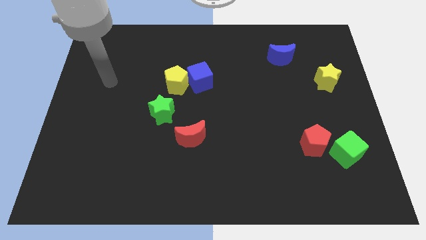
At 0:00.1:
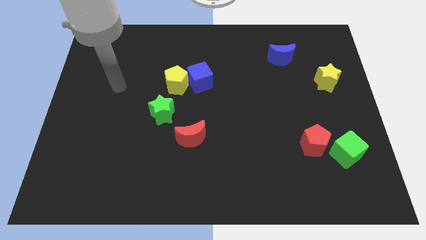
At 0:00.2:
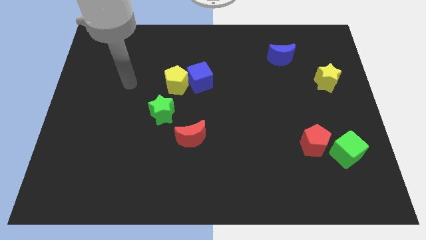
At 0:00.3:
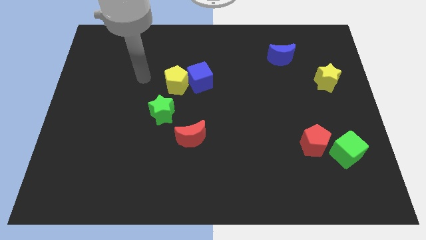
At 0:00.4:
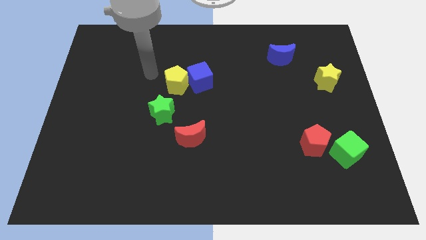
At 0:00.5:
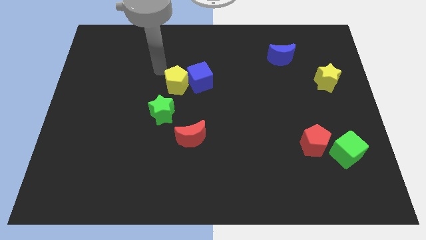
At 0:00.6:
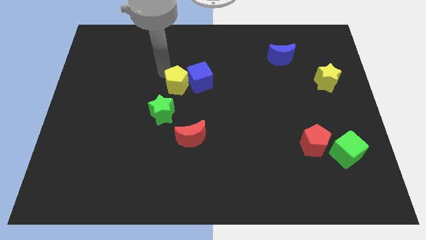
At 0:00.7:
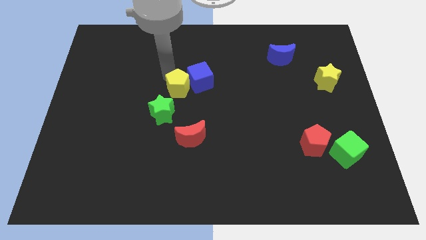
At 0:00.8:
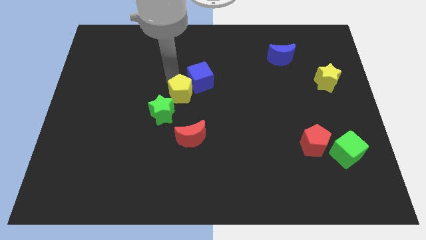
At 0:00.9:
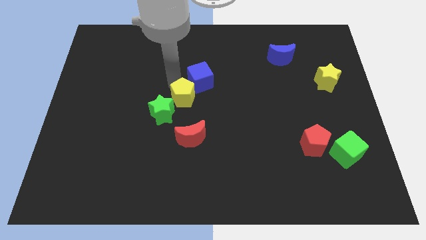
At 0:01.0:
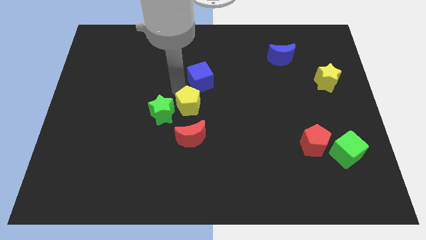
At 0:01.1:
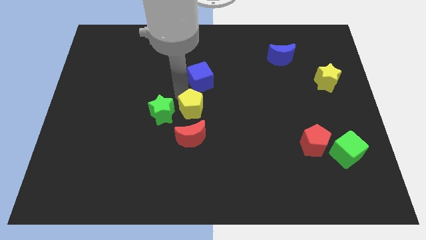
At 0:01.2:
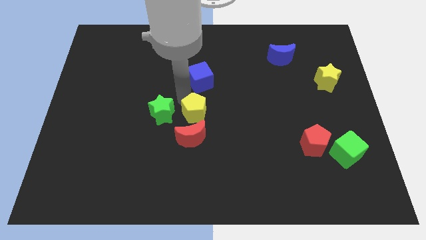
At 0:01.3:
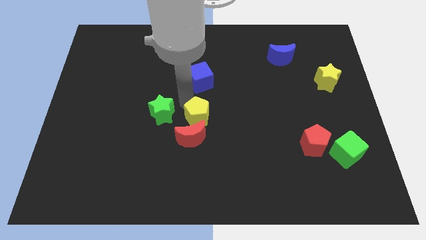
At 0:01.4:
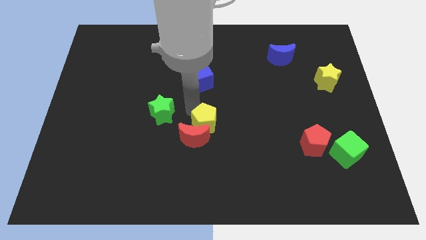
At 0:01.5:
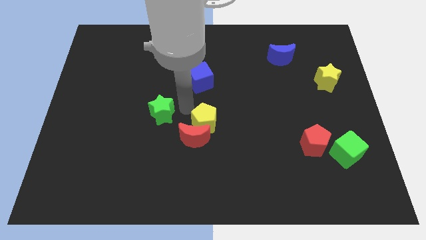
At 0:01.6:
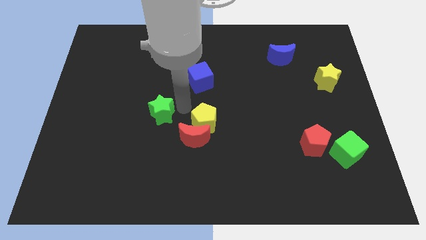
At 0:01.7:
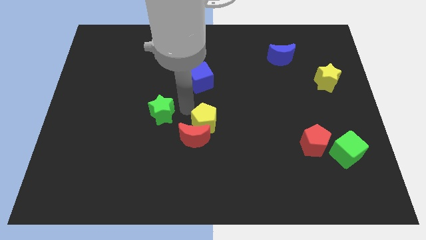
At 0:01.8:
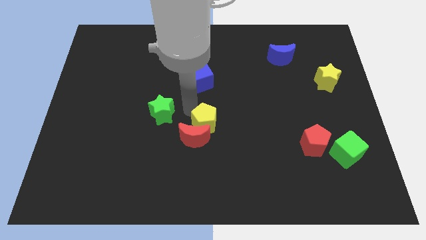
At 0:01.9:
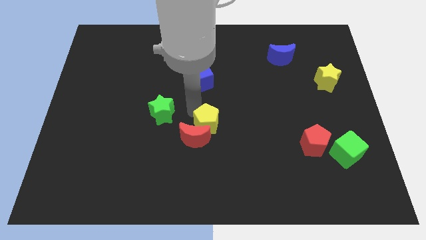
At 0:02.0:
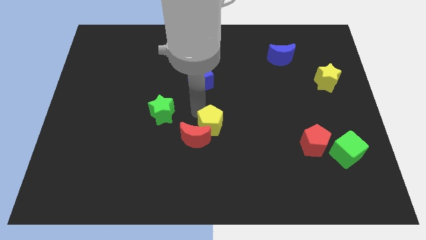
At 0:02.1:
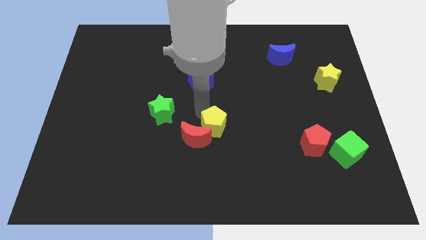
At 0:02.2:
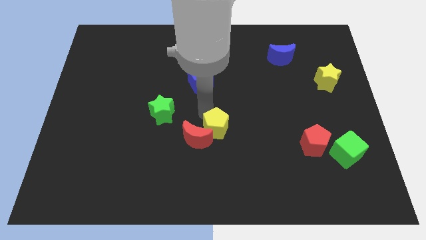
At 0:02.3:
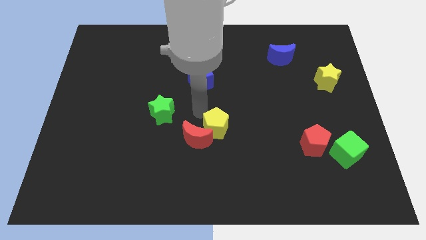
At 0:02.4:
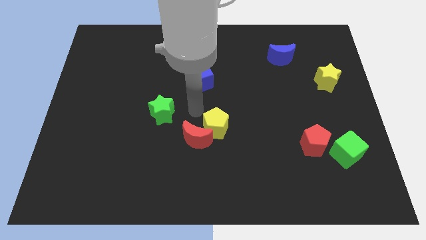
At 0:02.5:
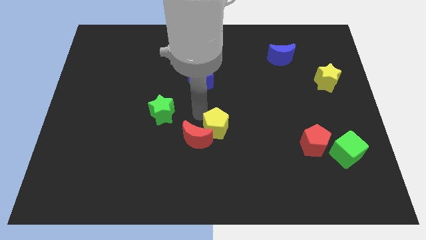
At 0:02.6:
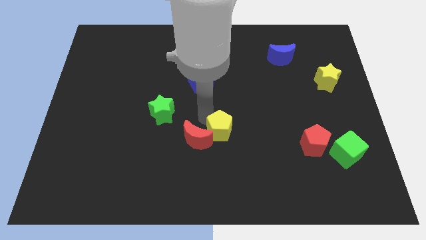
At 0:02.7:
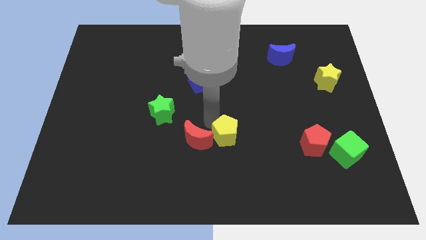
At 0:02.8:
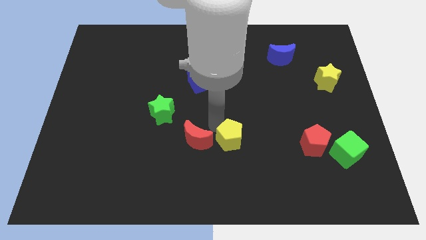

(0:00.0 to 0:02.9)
push the yellow pentagon diagonally downwards and to the right

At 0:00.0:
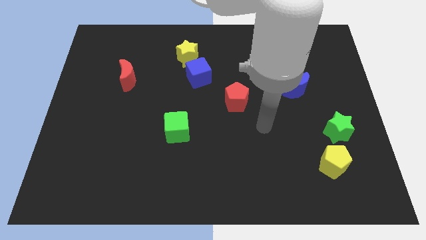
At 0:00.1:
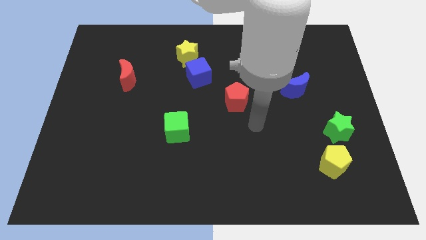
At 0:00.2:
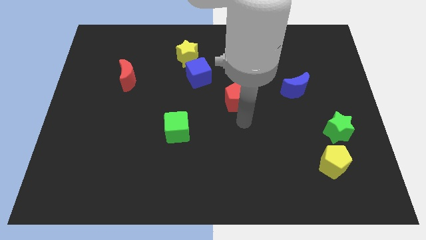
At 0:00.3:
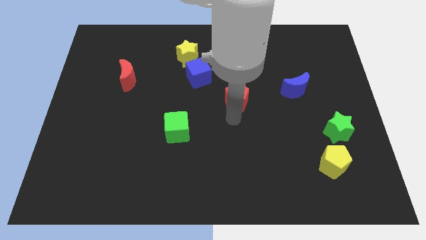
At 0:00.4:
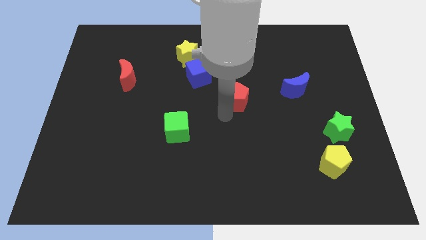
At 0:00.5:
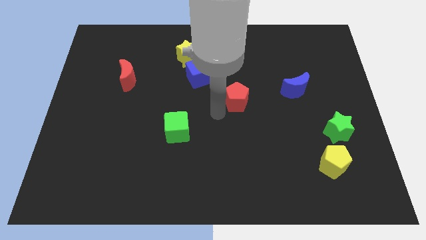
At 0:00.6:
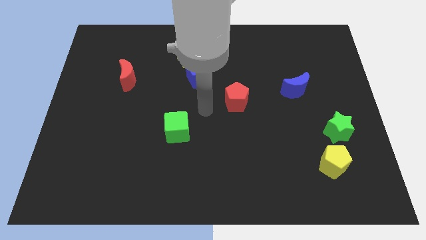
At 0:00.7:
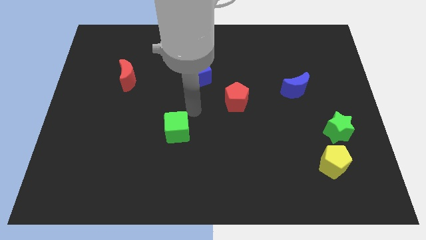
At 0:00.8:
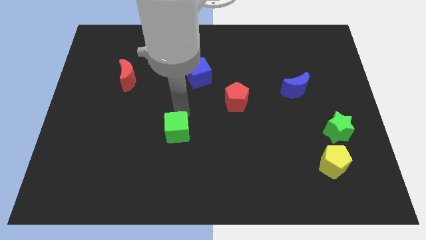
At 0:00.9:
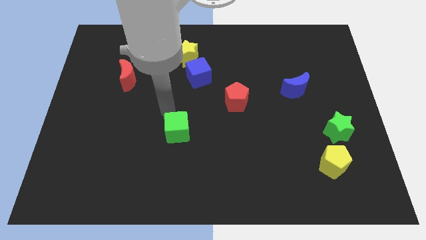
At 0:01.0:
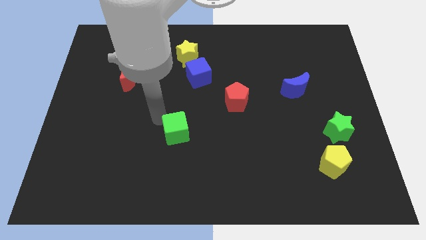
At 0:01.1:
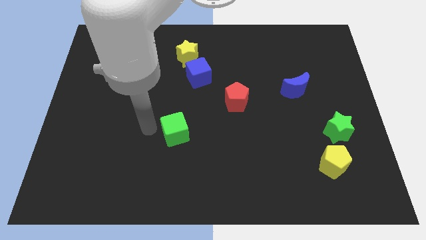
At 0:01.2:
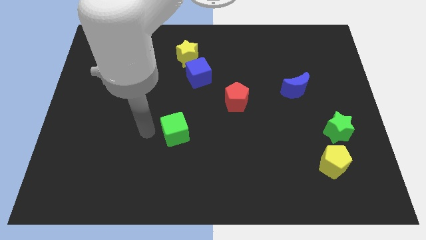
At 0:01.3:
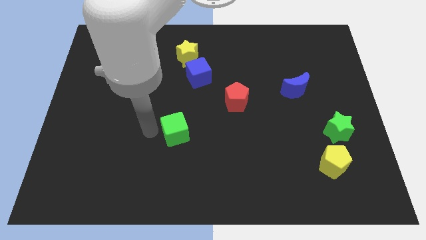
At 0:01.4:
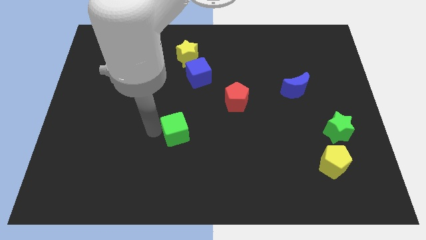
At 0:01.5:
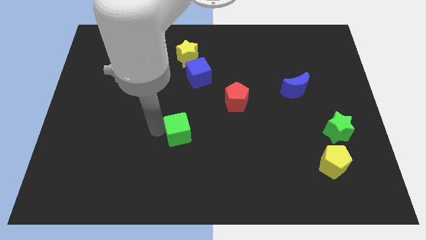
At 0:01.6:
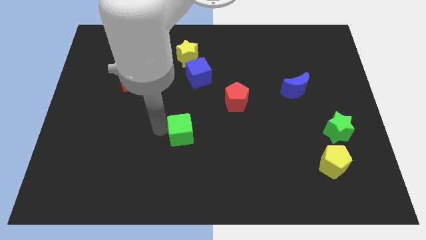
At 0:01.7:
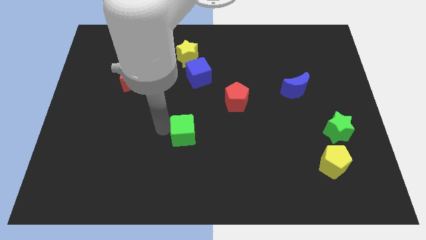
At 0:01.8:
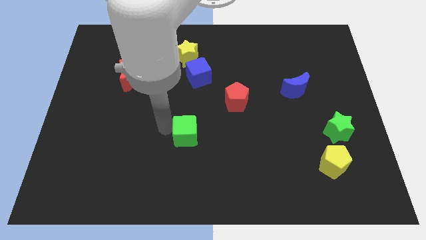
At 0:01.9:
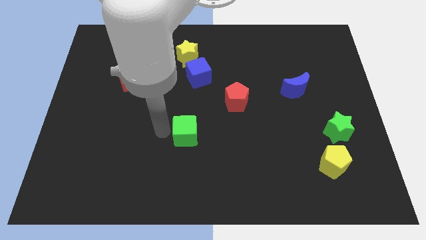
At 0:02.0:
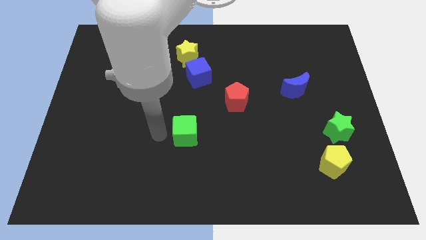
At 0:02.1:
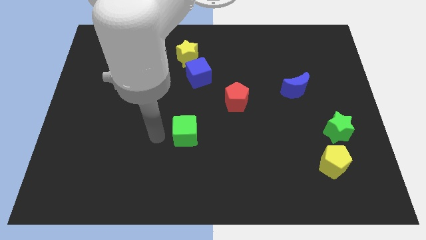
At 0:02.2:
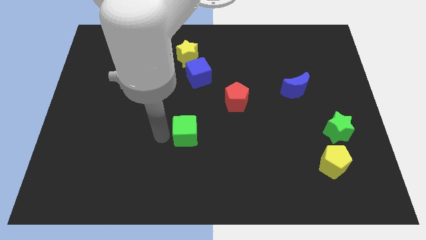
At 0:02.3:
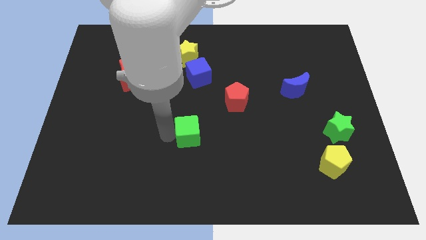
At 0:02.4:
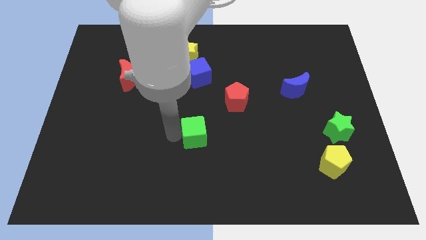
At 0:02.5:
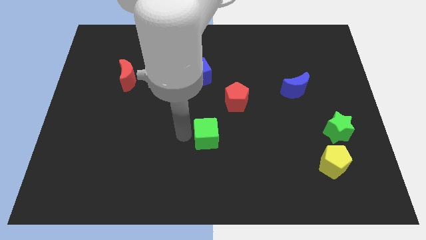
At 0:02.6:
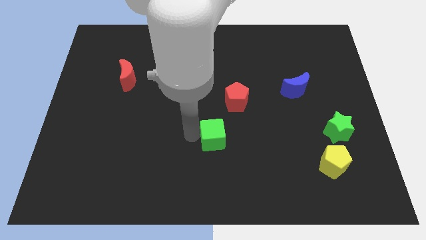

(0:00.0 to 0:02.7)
slide the green cube to the right a little bit

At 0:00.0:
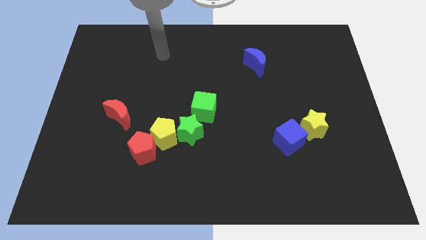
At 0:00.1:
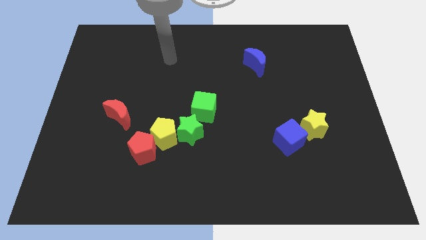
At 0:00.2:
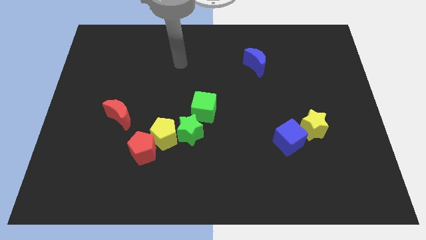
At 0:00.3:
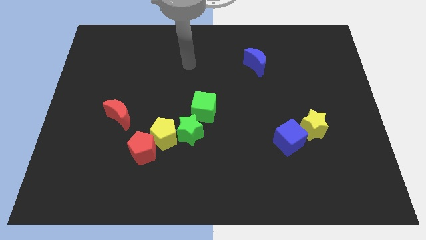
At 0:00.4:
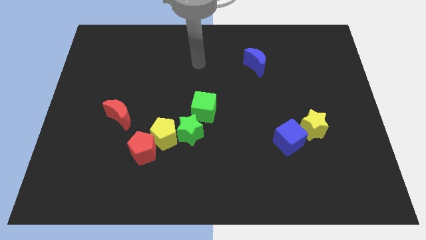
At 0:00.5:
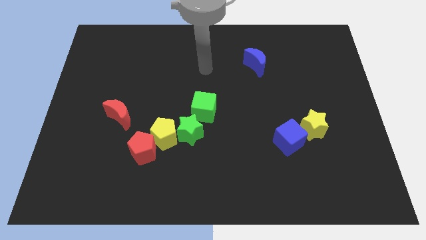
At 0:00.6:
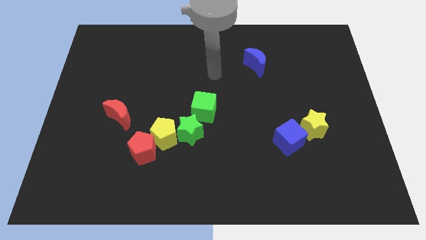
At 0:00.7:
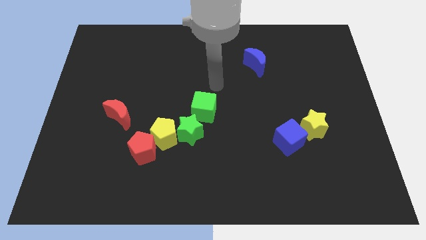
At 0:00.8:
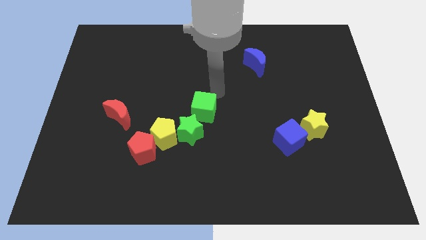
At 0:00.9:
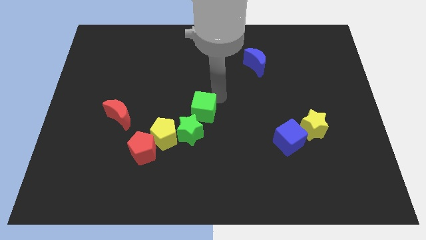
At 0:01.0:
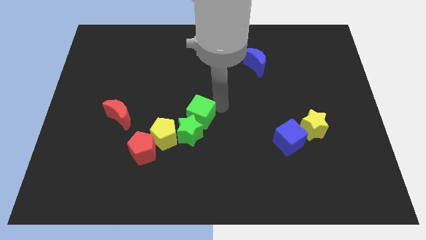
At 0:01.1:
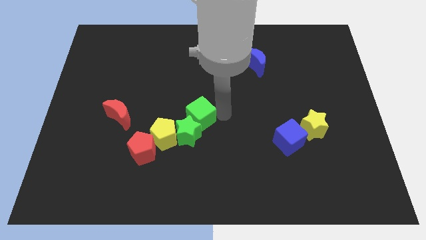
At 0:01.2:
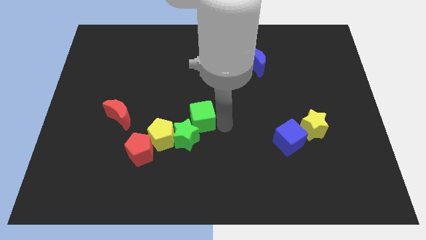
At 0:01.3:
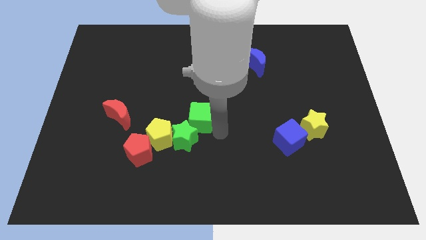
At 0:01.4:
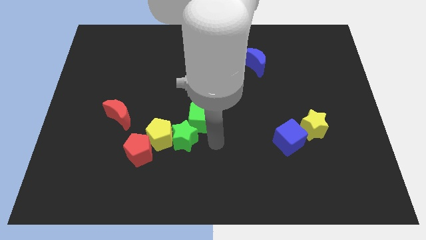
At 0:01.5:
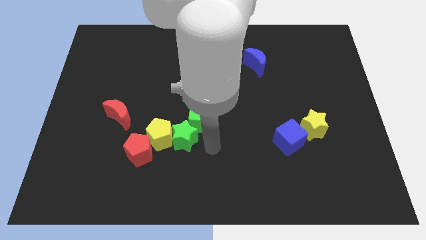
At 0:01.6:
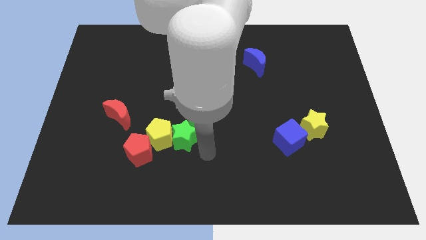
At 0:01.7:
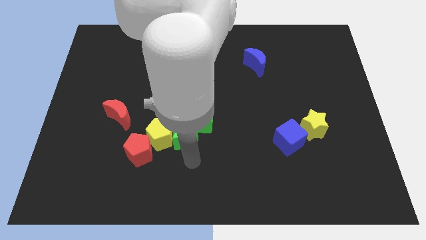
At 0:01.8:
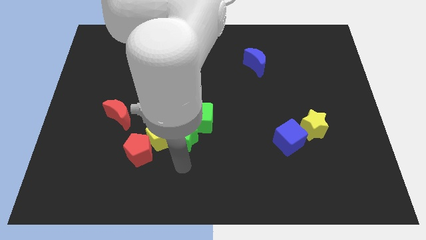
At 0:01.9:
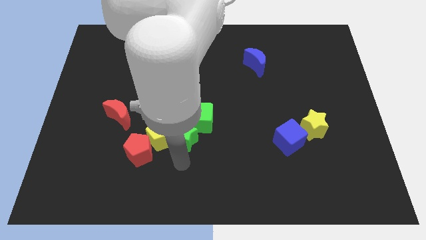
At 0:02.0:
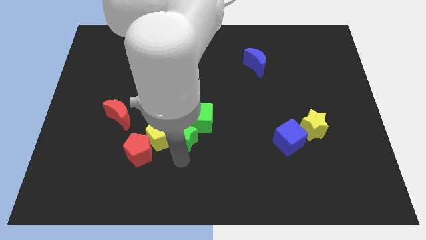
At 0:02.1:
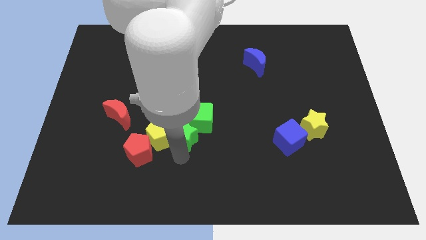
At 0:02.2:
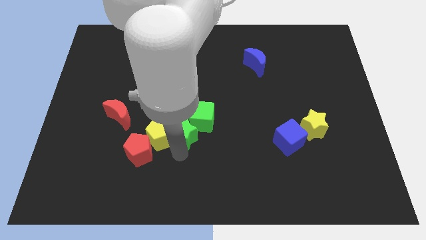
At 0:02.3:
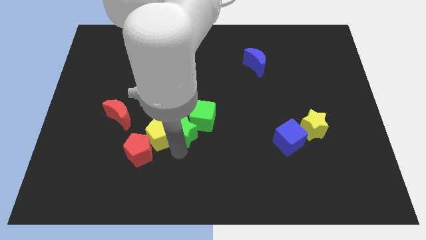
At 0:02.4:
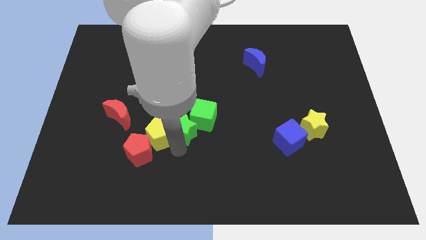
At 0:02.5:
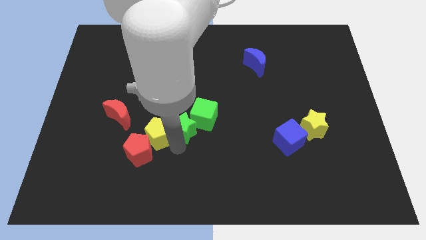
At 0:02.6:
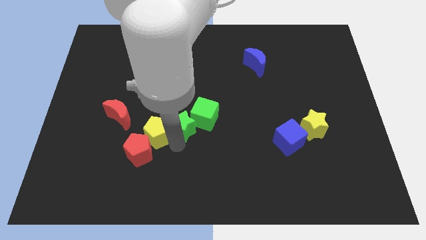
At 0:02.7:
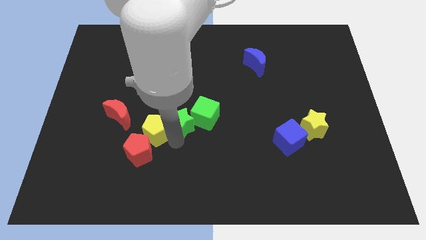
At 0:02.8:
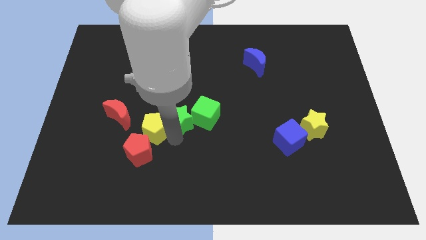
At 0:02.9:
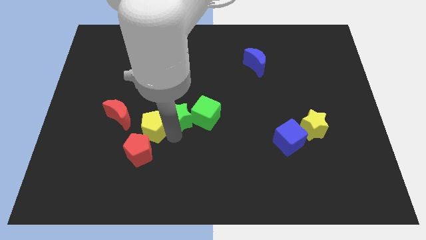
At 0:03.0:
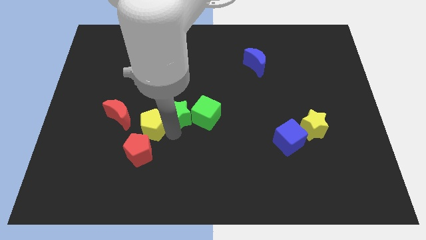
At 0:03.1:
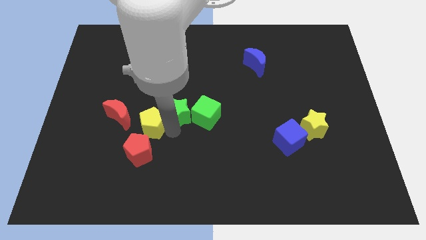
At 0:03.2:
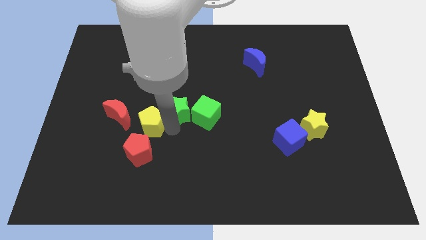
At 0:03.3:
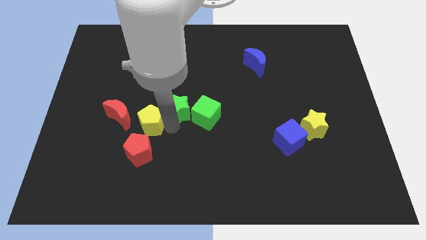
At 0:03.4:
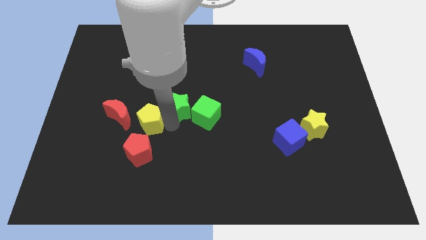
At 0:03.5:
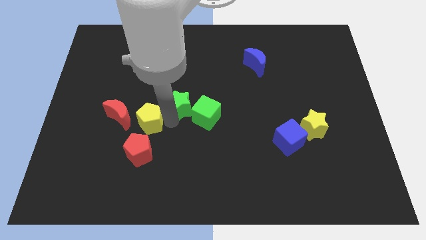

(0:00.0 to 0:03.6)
push the green star upwards a little
